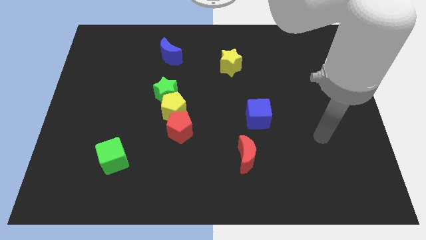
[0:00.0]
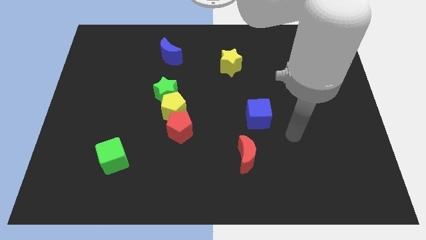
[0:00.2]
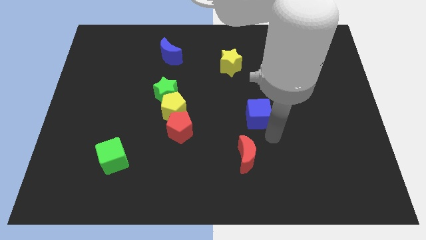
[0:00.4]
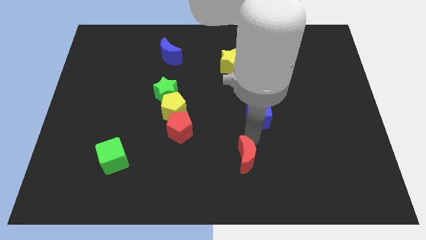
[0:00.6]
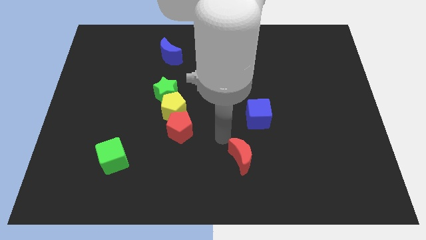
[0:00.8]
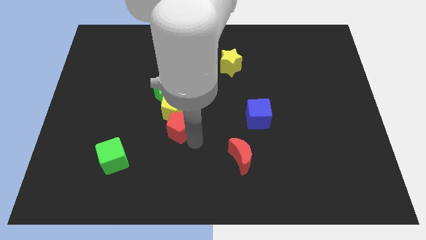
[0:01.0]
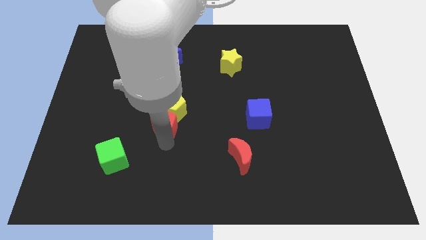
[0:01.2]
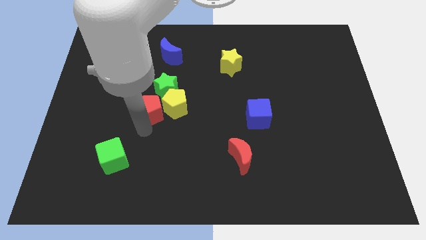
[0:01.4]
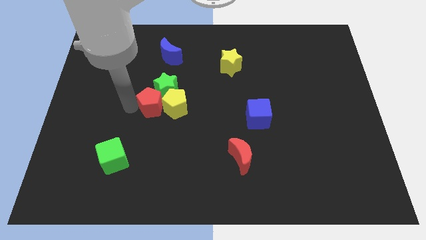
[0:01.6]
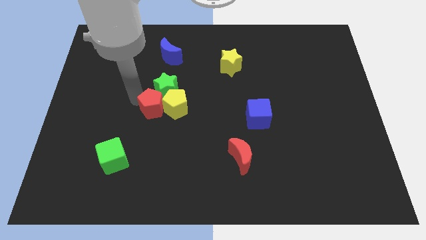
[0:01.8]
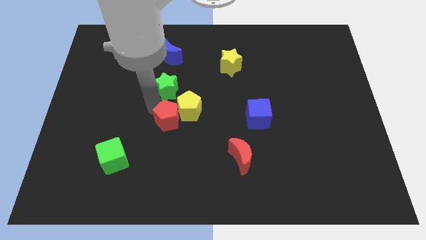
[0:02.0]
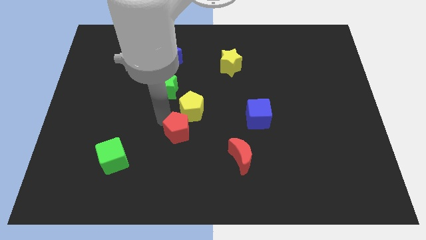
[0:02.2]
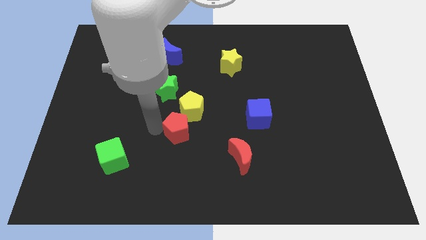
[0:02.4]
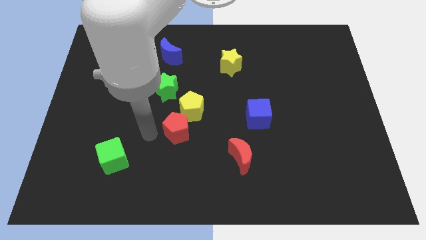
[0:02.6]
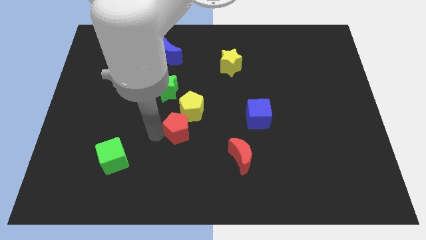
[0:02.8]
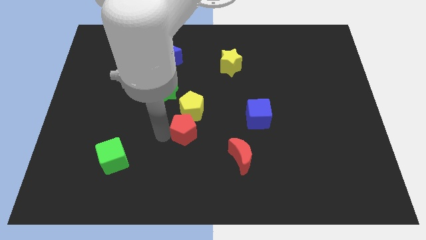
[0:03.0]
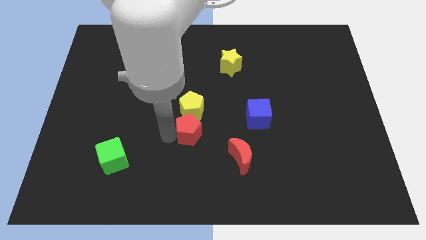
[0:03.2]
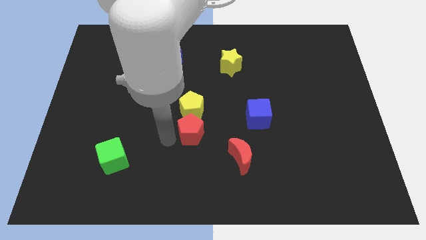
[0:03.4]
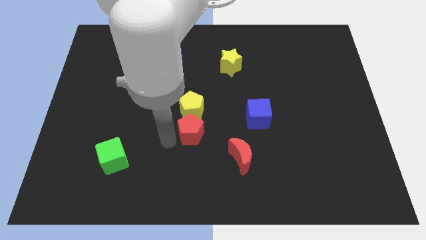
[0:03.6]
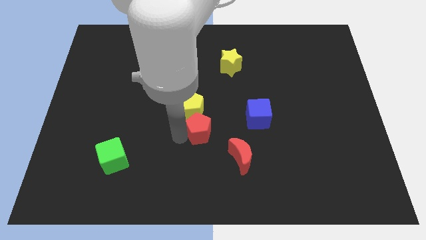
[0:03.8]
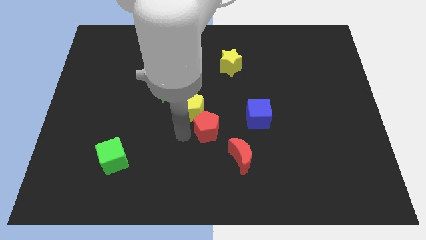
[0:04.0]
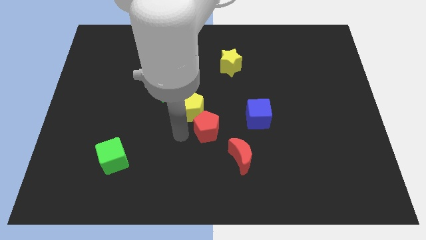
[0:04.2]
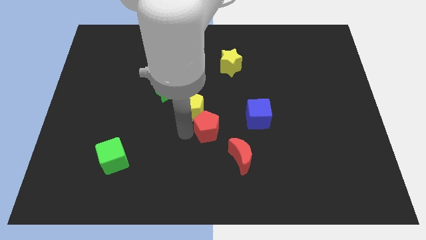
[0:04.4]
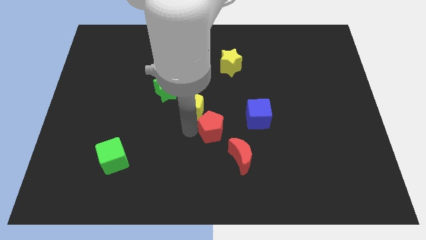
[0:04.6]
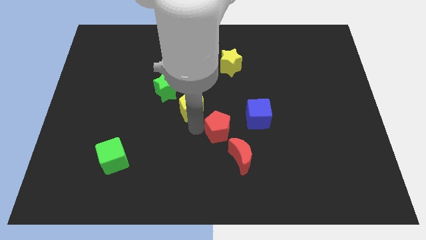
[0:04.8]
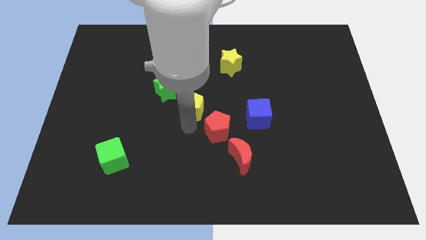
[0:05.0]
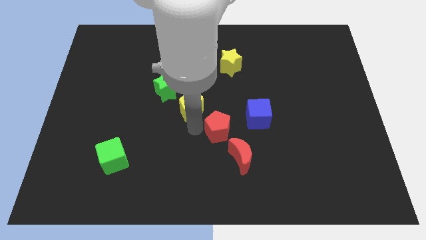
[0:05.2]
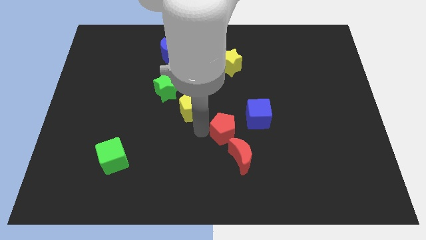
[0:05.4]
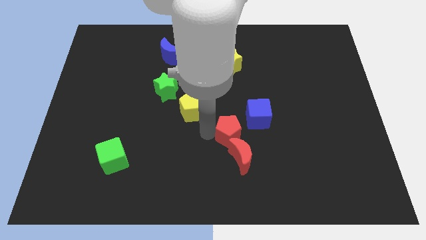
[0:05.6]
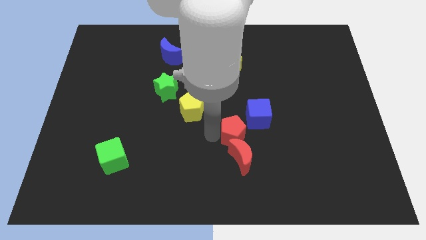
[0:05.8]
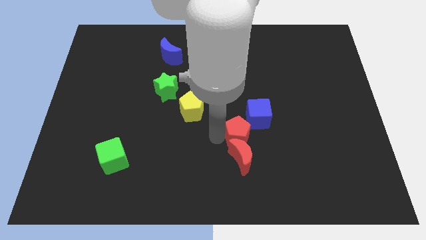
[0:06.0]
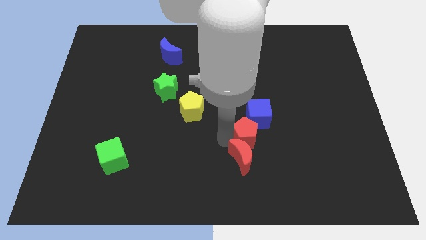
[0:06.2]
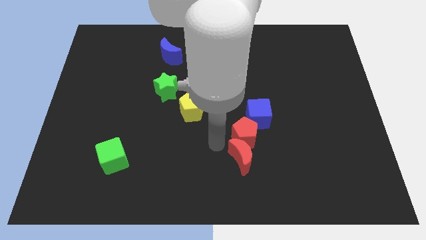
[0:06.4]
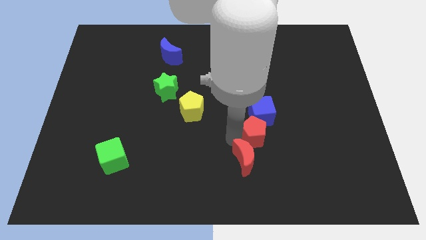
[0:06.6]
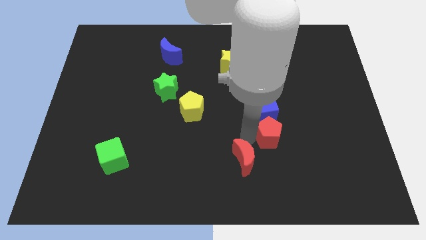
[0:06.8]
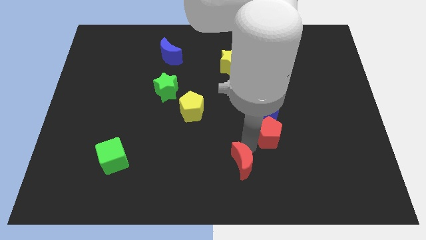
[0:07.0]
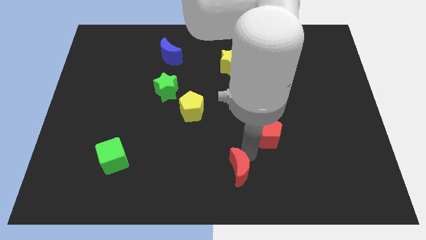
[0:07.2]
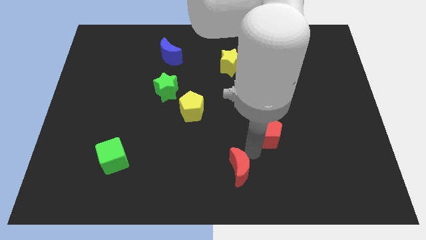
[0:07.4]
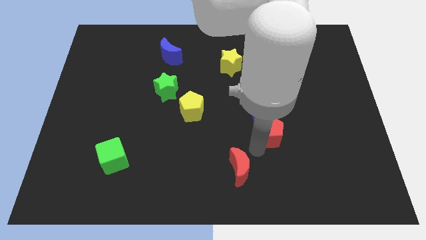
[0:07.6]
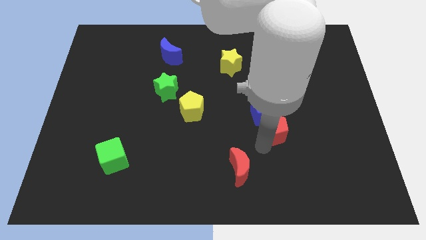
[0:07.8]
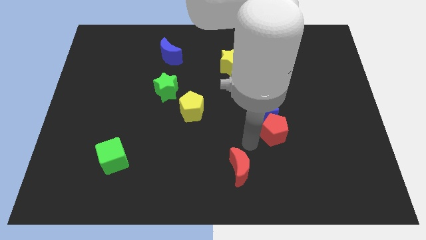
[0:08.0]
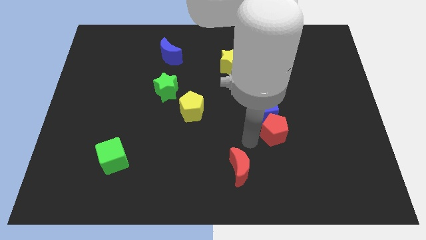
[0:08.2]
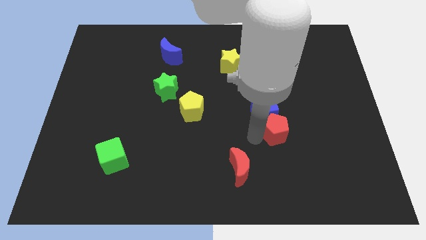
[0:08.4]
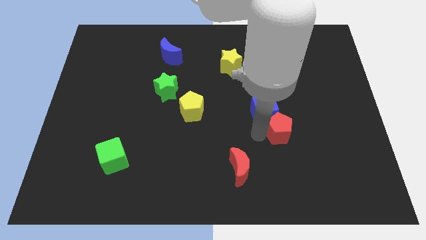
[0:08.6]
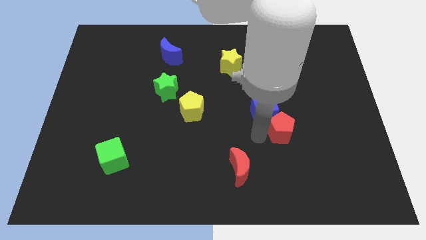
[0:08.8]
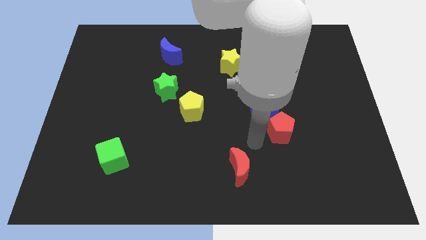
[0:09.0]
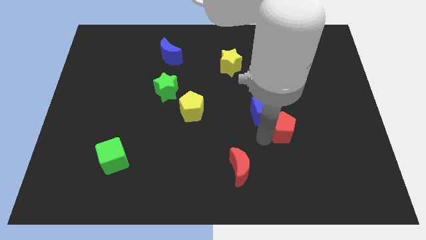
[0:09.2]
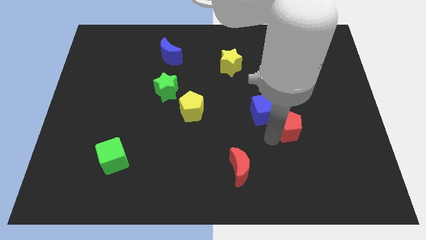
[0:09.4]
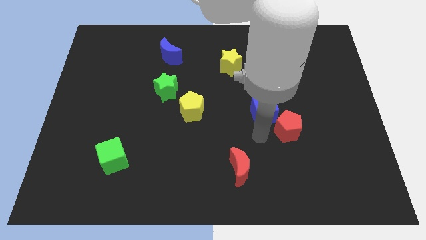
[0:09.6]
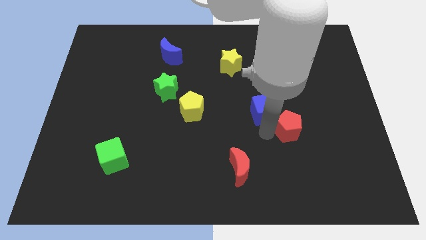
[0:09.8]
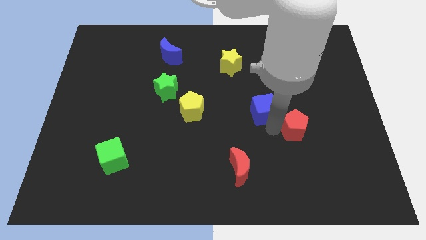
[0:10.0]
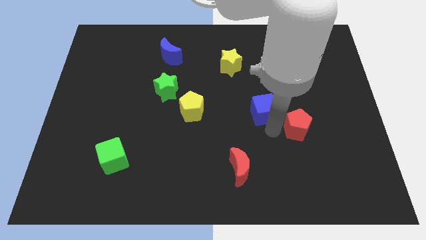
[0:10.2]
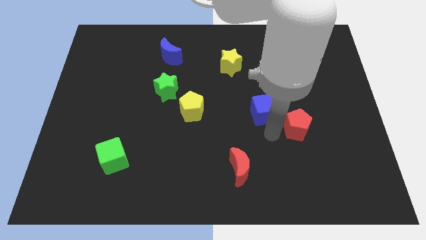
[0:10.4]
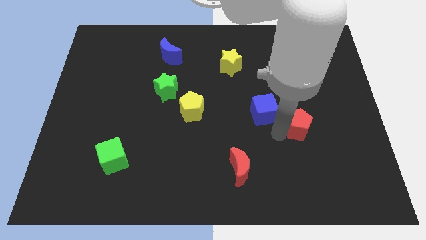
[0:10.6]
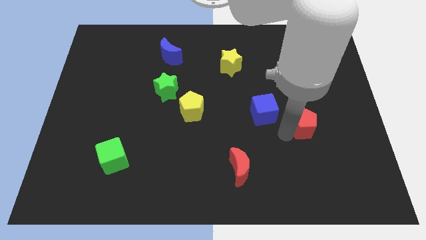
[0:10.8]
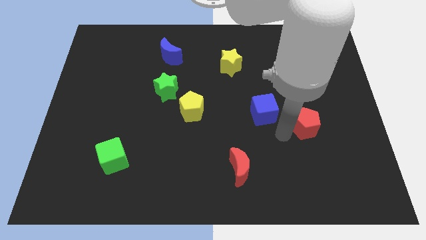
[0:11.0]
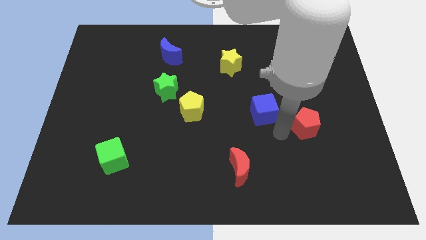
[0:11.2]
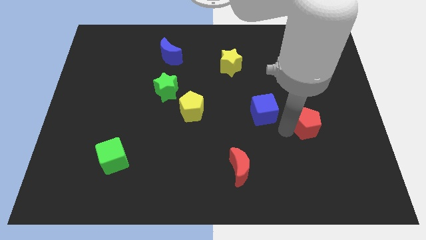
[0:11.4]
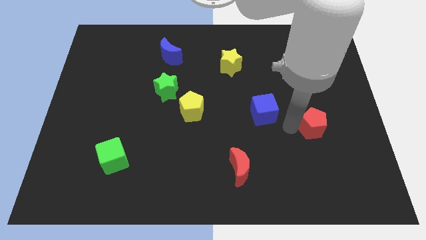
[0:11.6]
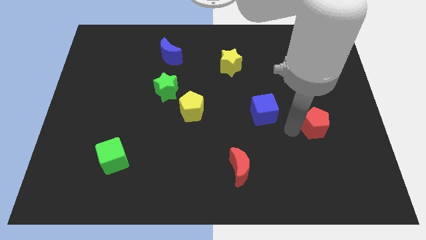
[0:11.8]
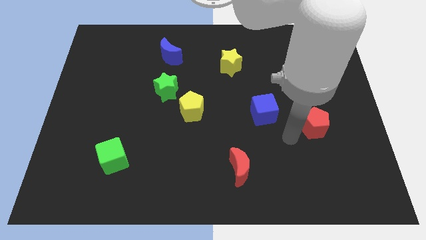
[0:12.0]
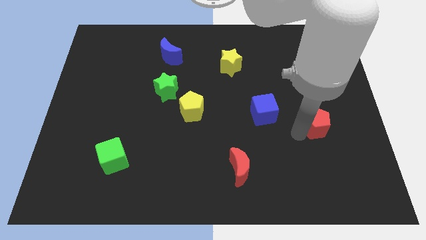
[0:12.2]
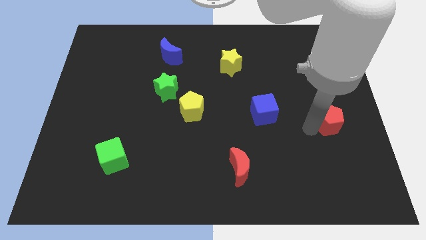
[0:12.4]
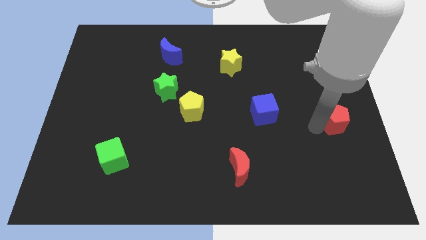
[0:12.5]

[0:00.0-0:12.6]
slide the red pentagon to the right side of the board
